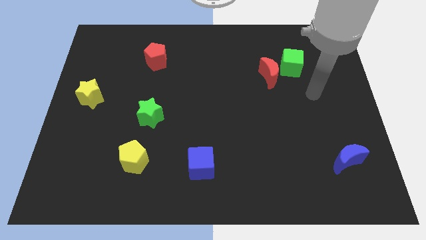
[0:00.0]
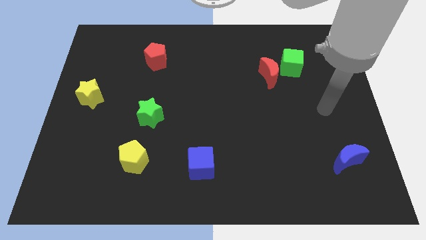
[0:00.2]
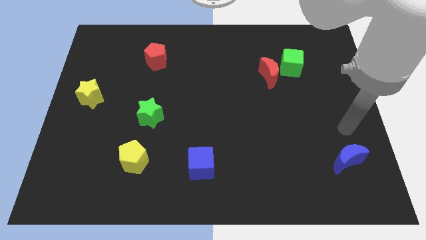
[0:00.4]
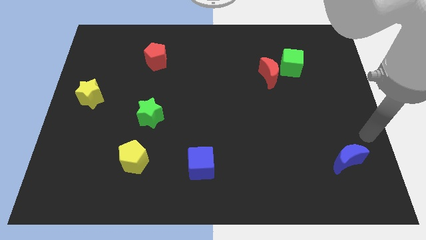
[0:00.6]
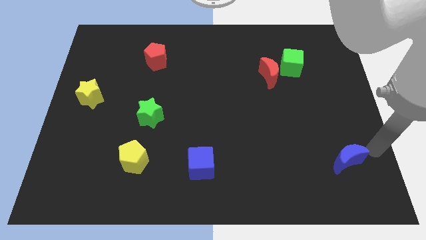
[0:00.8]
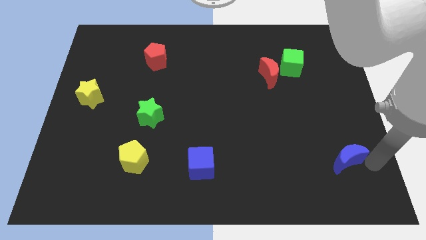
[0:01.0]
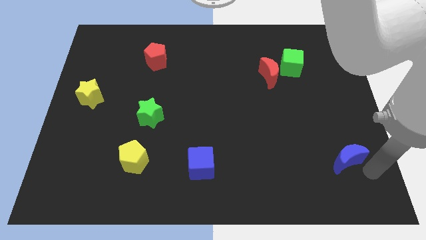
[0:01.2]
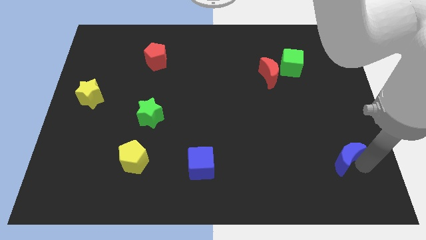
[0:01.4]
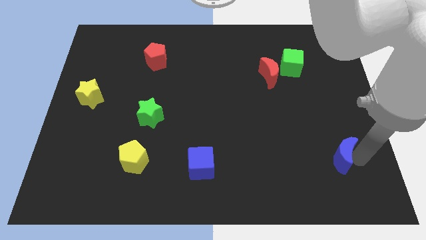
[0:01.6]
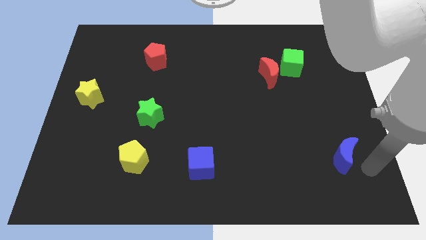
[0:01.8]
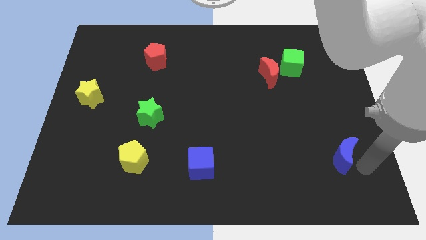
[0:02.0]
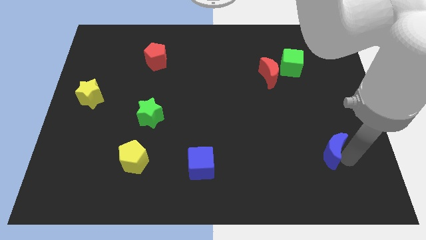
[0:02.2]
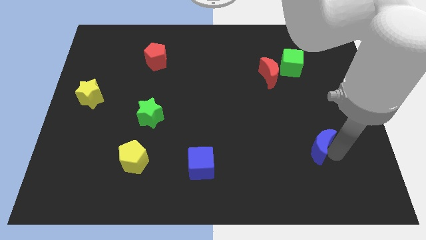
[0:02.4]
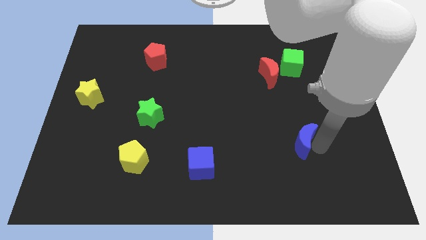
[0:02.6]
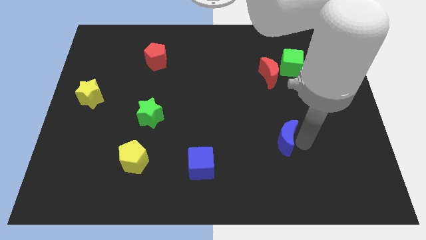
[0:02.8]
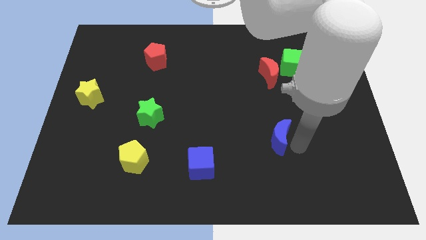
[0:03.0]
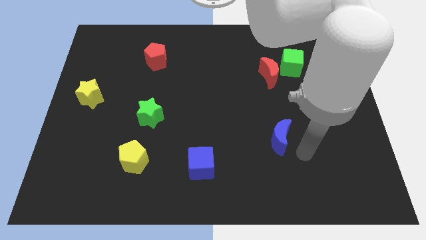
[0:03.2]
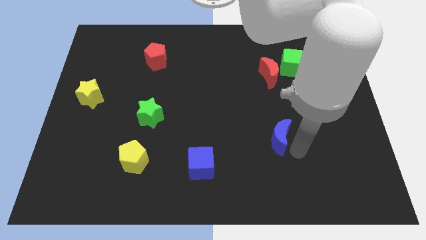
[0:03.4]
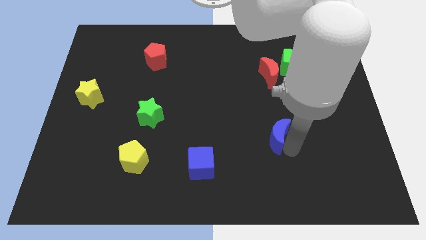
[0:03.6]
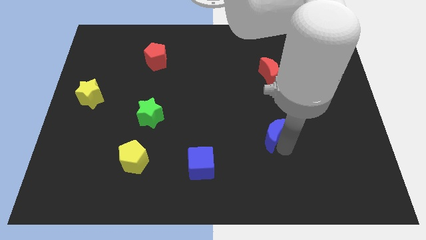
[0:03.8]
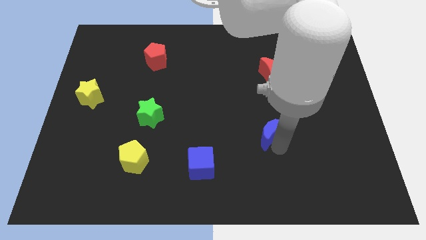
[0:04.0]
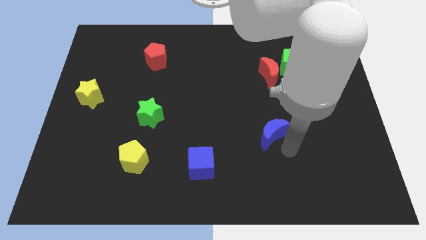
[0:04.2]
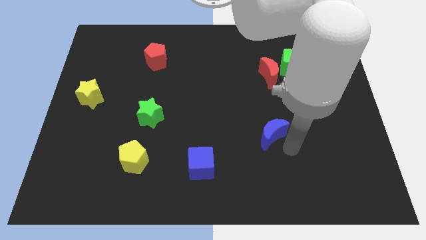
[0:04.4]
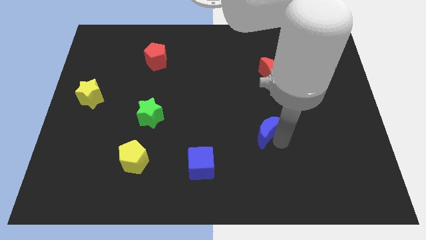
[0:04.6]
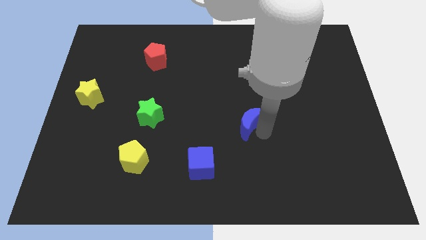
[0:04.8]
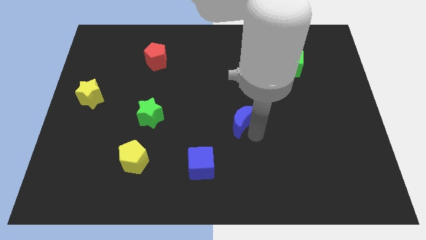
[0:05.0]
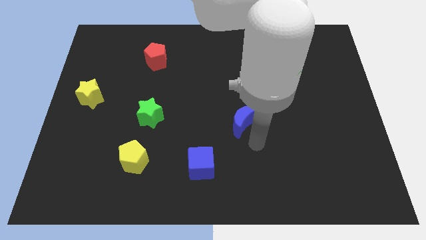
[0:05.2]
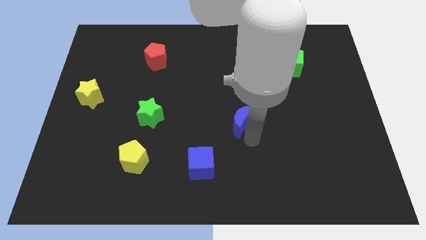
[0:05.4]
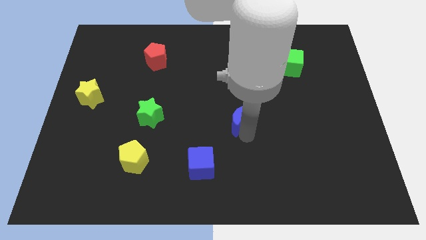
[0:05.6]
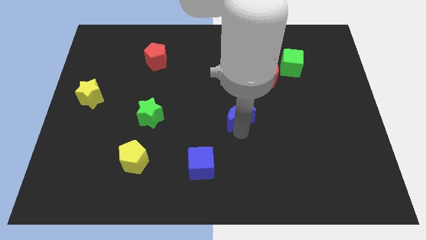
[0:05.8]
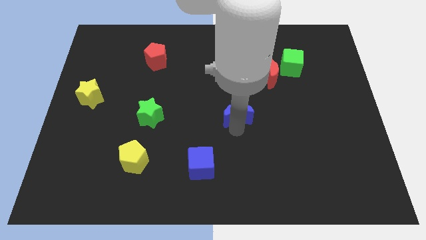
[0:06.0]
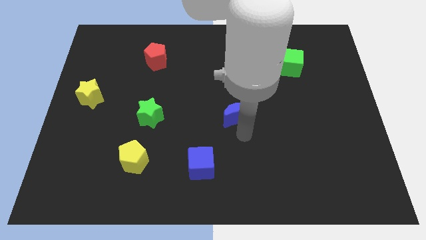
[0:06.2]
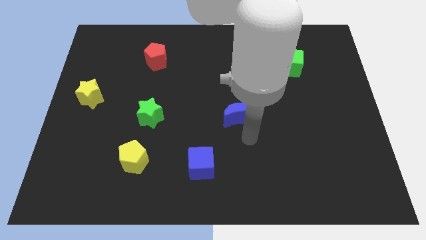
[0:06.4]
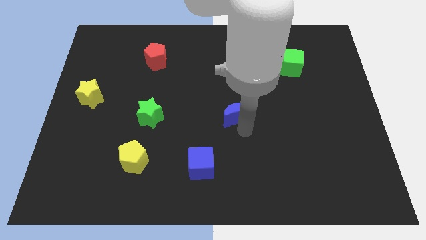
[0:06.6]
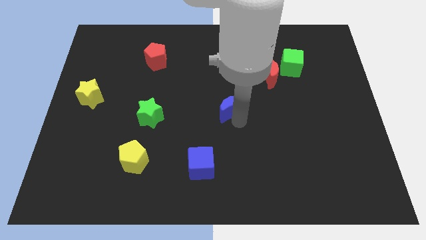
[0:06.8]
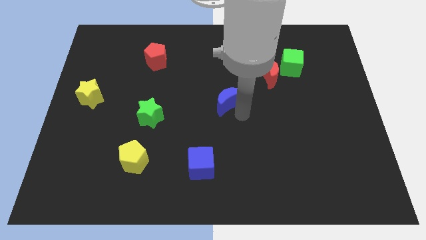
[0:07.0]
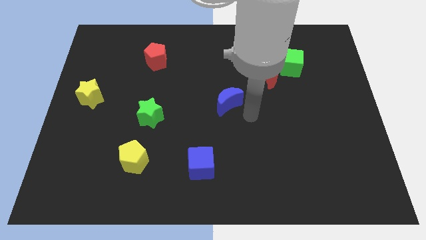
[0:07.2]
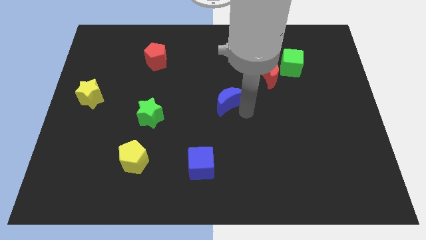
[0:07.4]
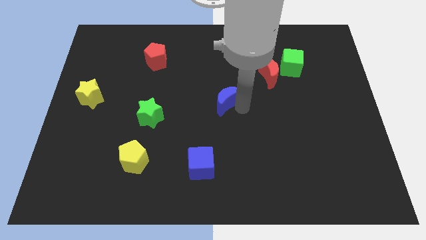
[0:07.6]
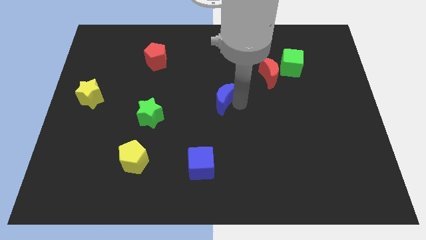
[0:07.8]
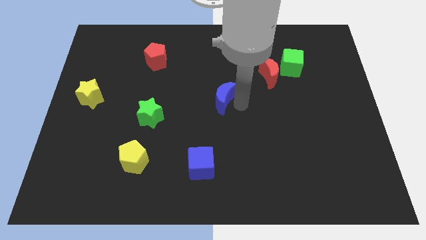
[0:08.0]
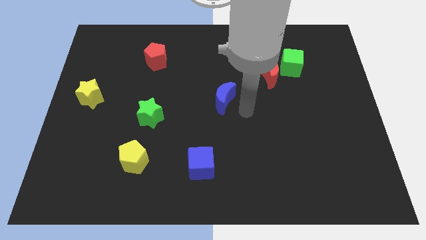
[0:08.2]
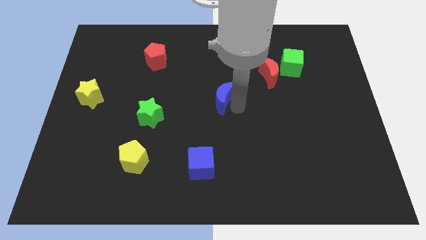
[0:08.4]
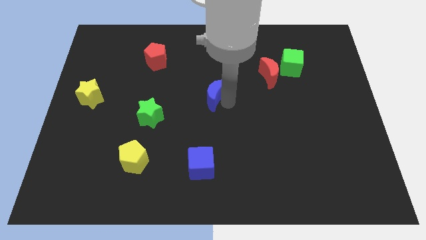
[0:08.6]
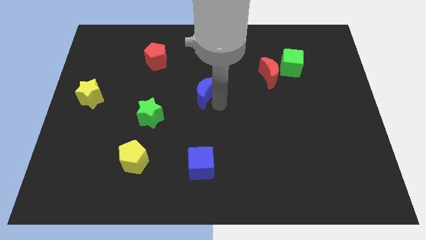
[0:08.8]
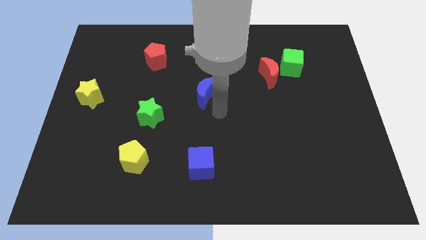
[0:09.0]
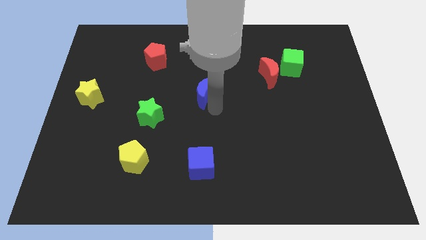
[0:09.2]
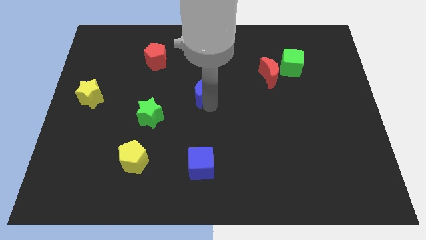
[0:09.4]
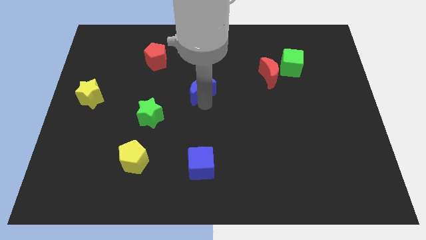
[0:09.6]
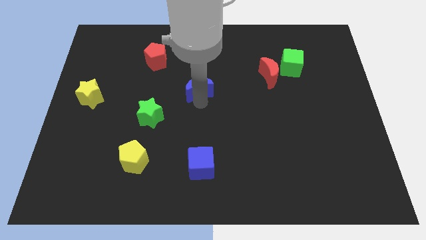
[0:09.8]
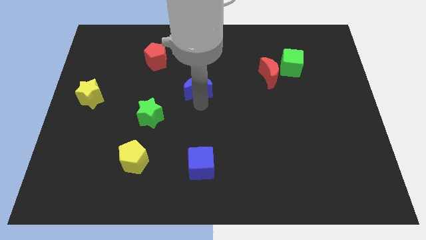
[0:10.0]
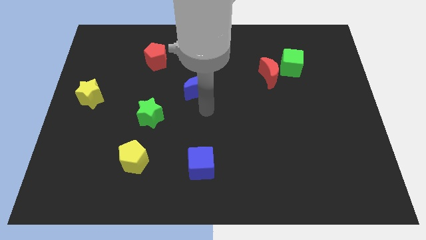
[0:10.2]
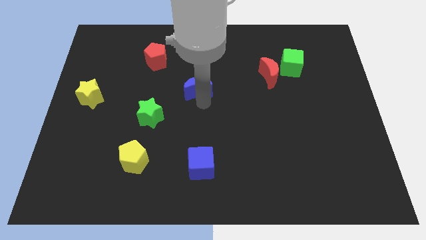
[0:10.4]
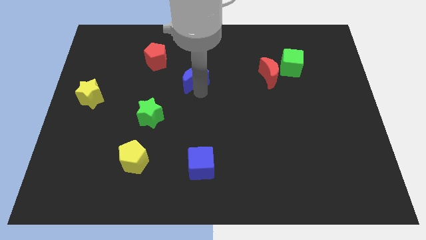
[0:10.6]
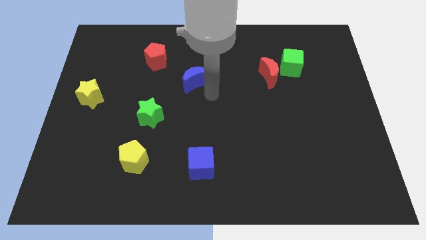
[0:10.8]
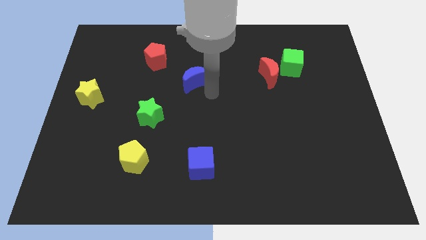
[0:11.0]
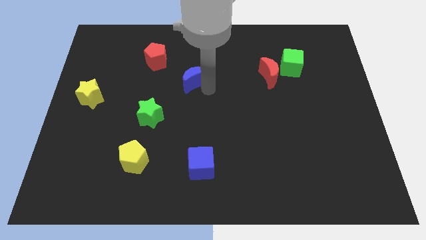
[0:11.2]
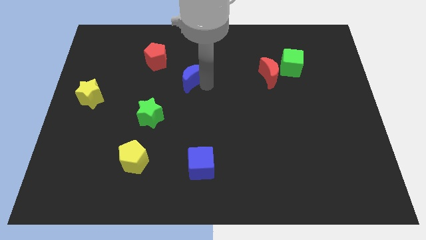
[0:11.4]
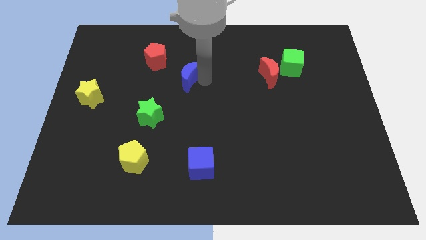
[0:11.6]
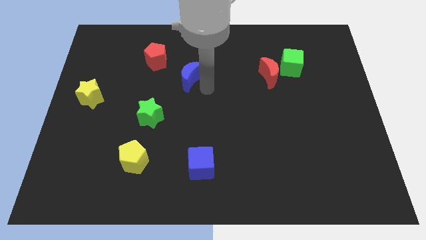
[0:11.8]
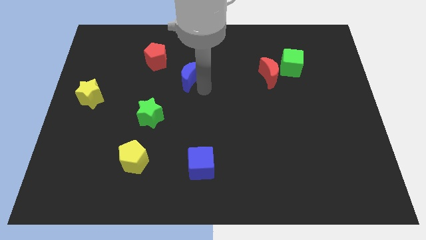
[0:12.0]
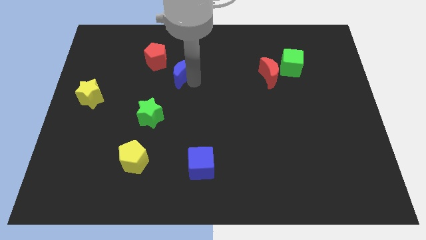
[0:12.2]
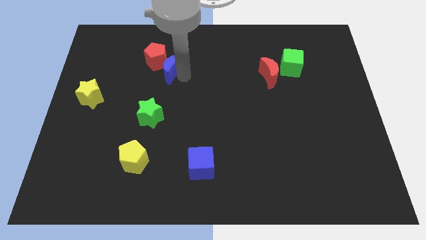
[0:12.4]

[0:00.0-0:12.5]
slide the blue moon next to the red pentagon

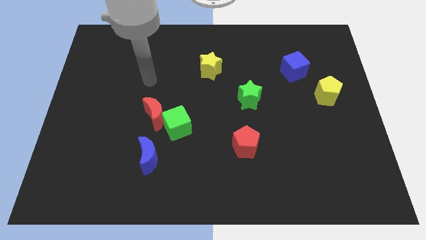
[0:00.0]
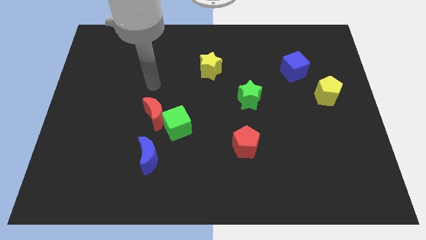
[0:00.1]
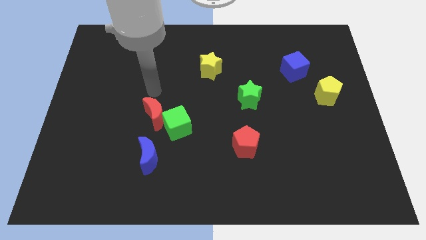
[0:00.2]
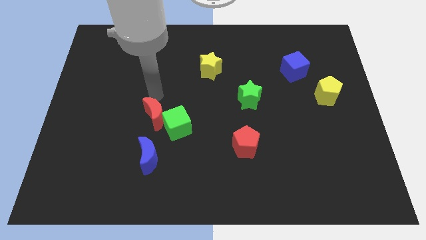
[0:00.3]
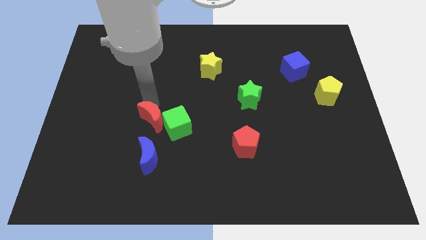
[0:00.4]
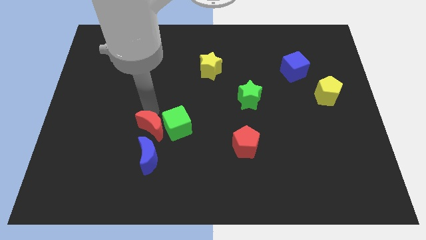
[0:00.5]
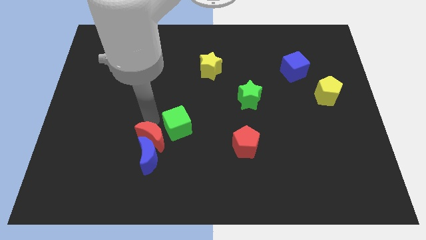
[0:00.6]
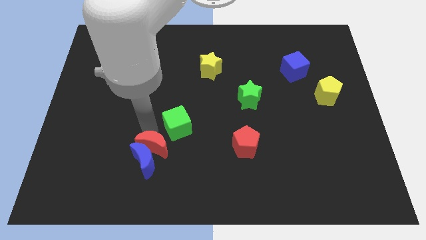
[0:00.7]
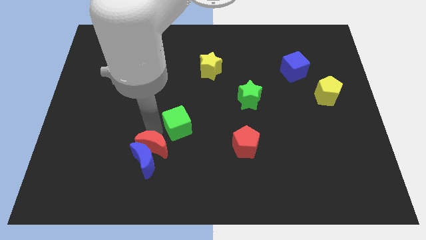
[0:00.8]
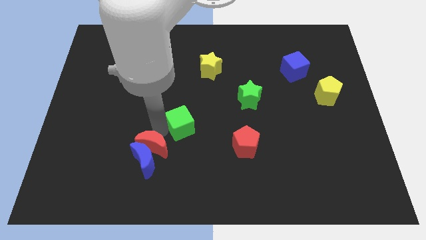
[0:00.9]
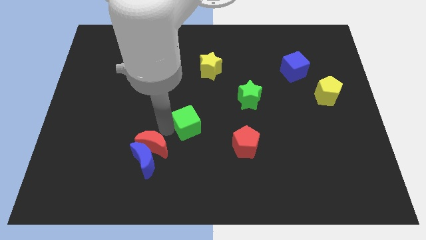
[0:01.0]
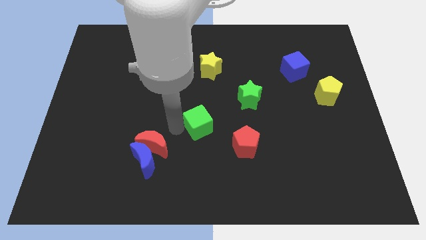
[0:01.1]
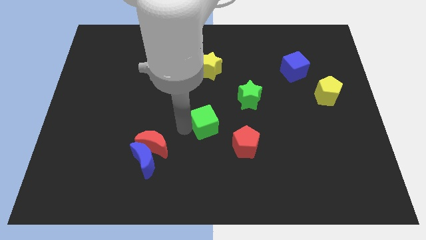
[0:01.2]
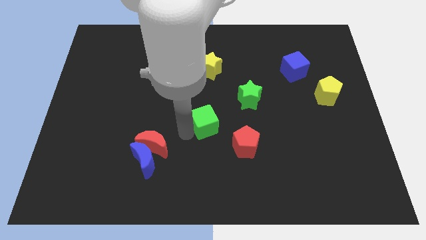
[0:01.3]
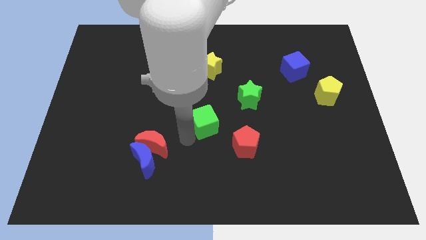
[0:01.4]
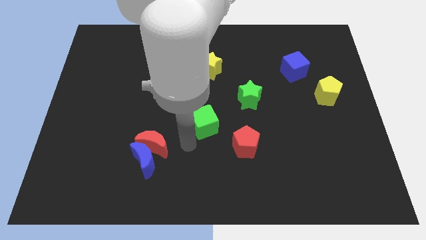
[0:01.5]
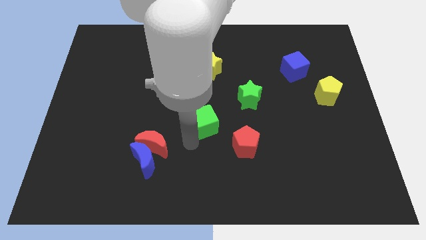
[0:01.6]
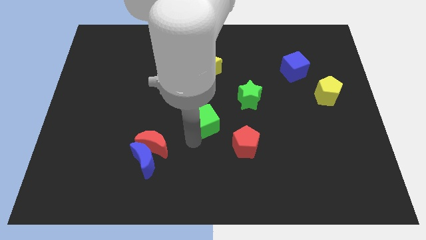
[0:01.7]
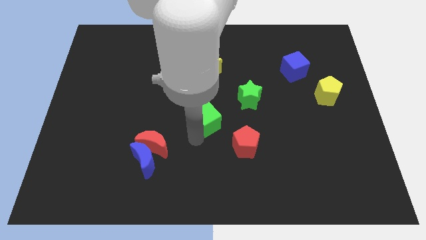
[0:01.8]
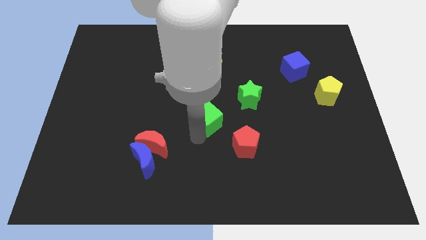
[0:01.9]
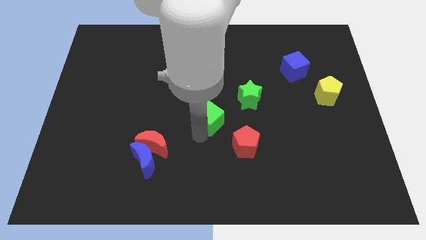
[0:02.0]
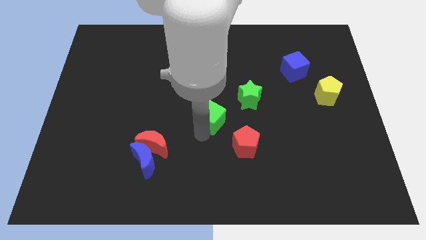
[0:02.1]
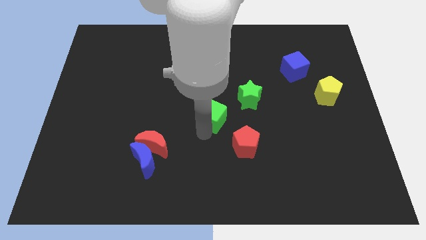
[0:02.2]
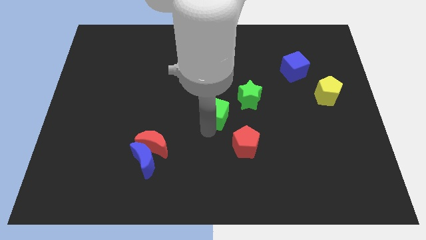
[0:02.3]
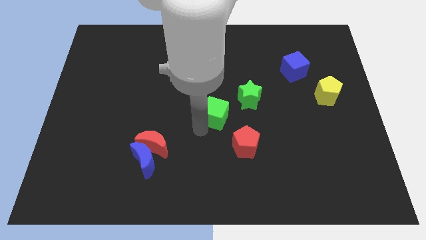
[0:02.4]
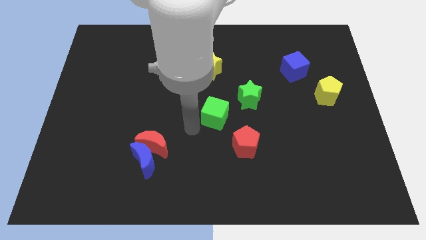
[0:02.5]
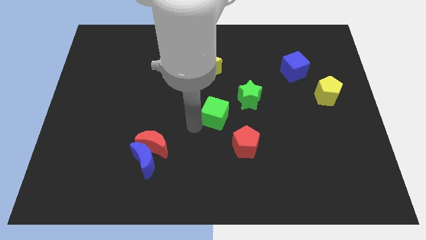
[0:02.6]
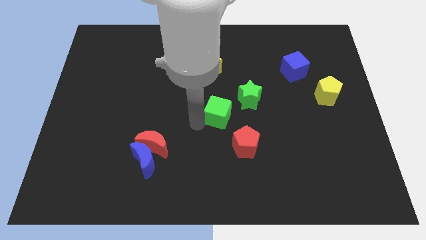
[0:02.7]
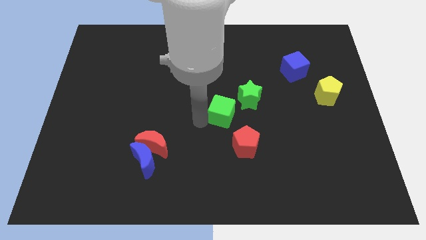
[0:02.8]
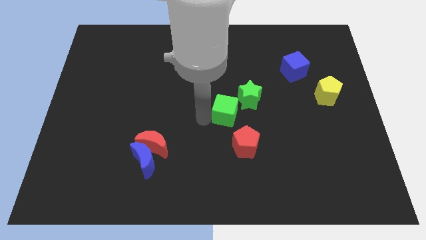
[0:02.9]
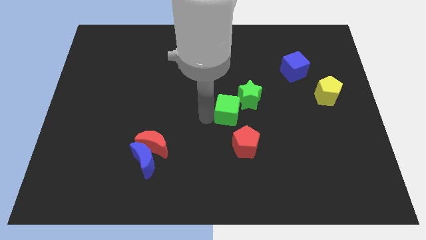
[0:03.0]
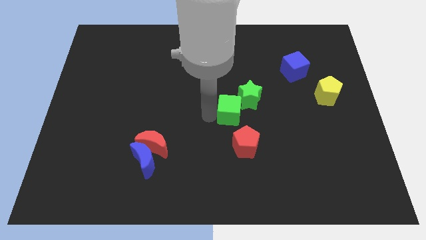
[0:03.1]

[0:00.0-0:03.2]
slide the green cube towards the green star
